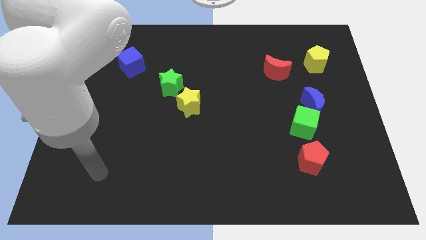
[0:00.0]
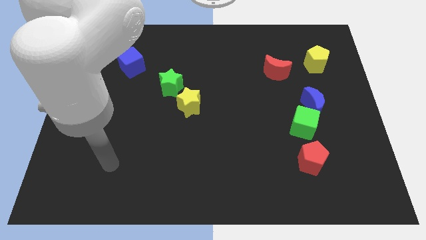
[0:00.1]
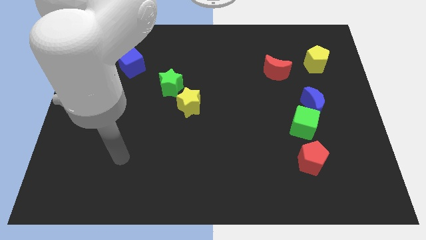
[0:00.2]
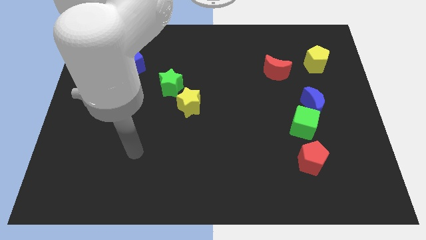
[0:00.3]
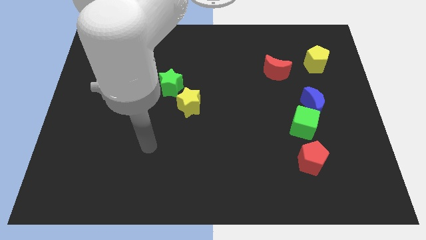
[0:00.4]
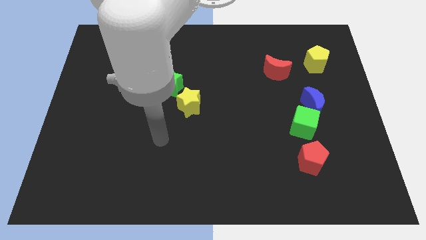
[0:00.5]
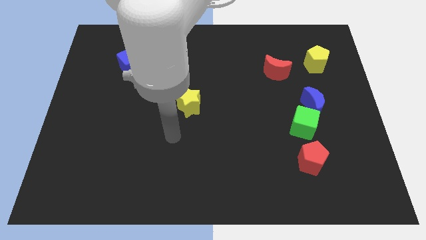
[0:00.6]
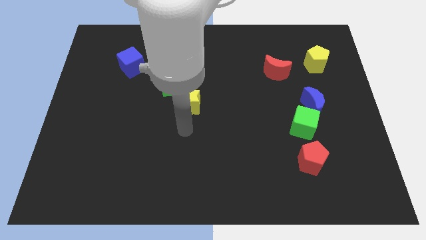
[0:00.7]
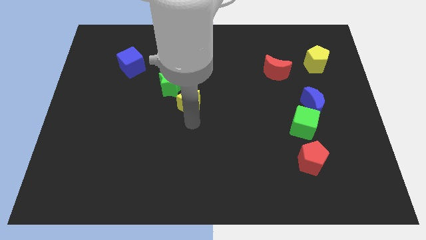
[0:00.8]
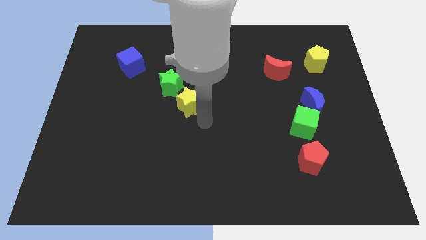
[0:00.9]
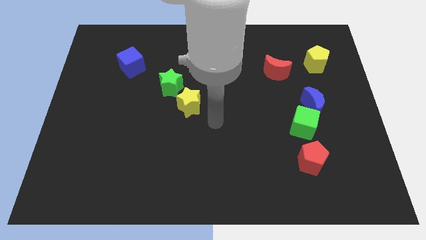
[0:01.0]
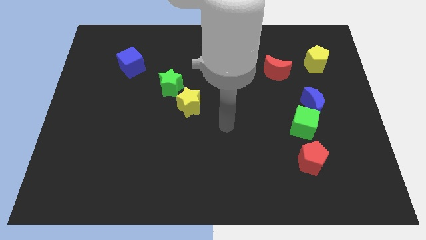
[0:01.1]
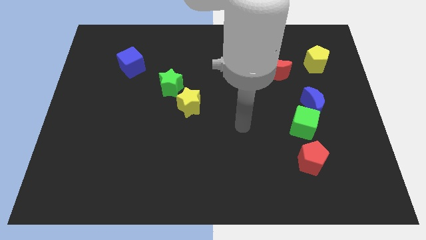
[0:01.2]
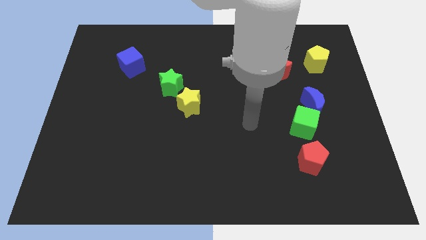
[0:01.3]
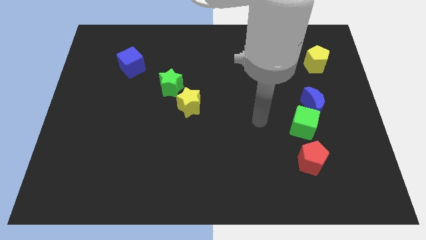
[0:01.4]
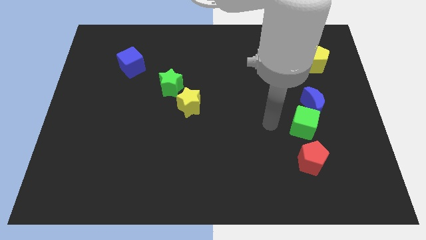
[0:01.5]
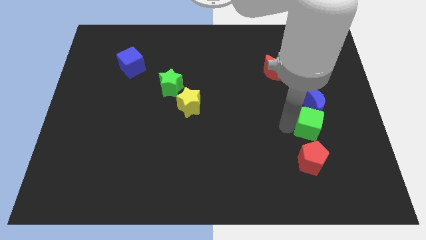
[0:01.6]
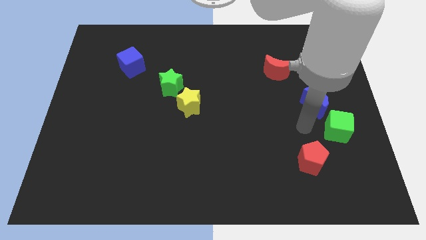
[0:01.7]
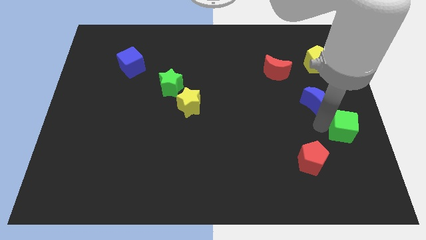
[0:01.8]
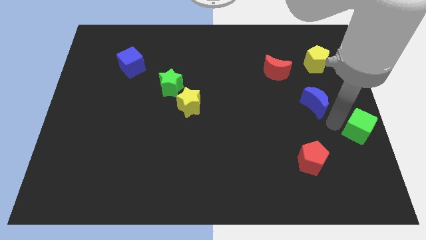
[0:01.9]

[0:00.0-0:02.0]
move the blue moon away from the green cube

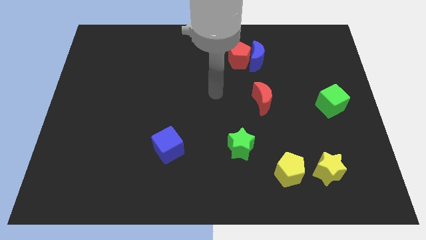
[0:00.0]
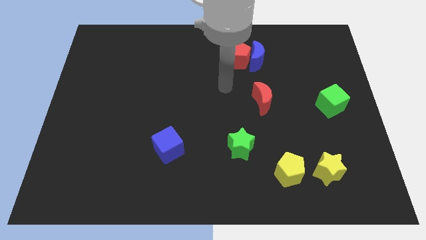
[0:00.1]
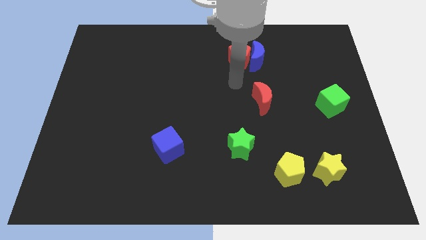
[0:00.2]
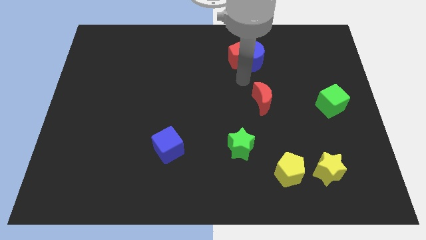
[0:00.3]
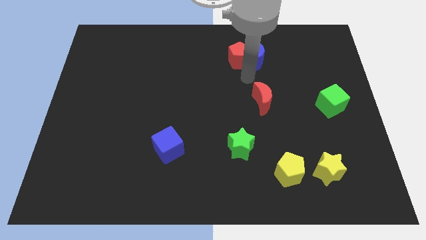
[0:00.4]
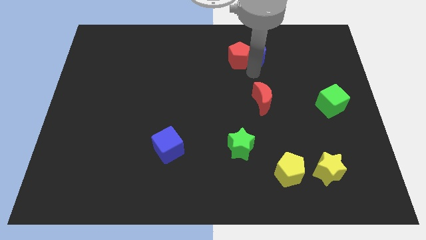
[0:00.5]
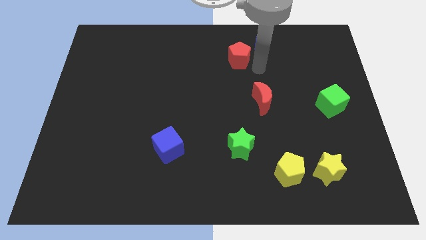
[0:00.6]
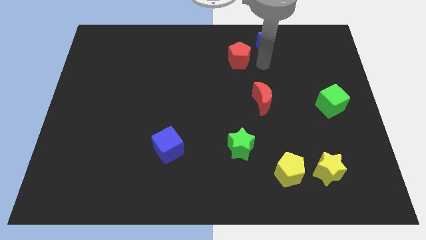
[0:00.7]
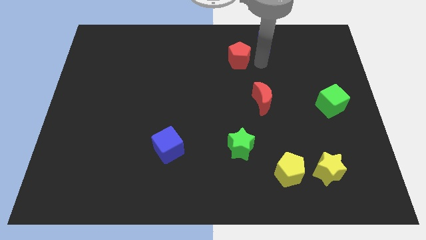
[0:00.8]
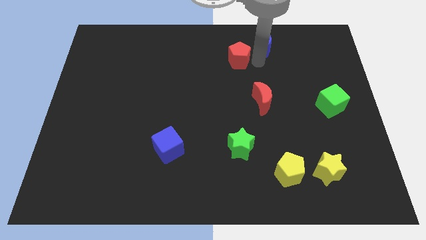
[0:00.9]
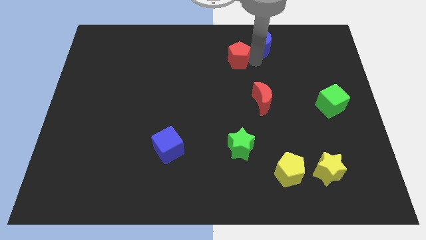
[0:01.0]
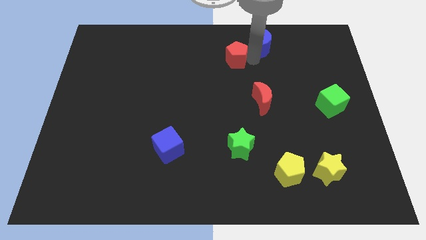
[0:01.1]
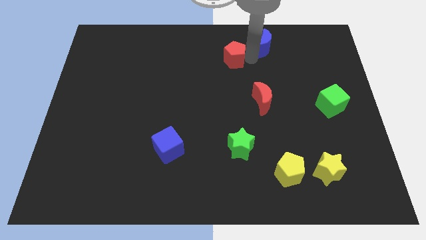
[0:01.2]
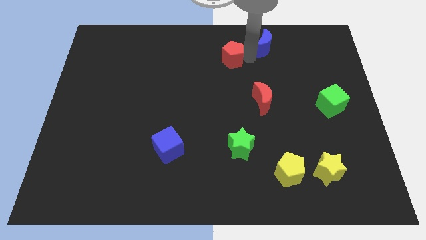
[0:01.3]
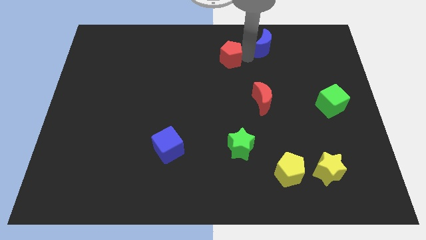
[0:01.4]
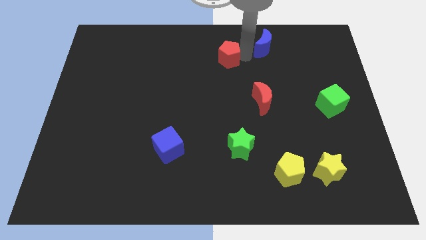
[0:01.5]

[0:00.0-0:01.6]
separate the red pentagon from the blue moon

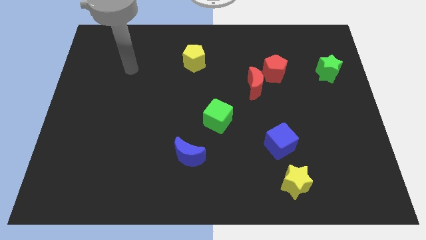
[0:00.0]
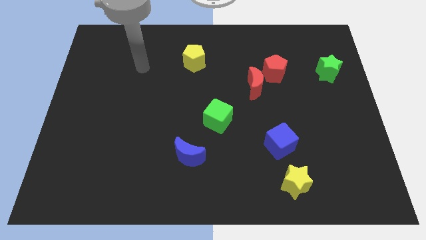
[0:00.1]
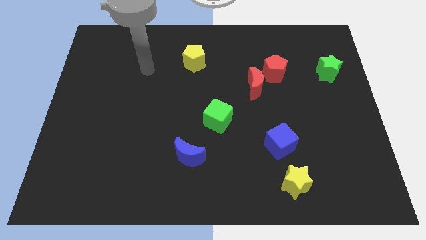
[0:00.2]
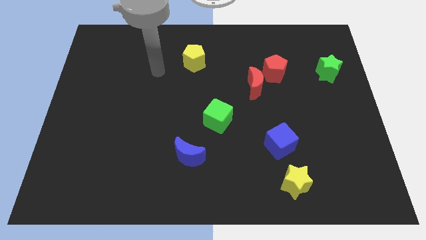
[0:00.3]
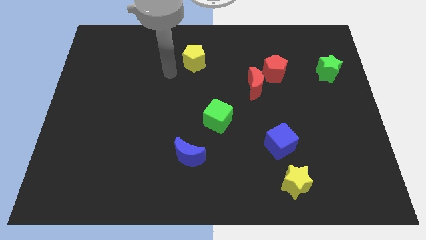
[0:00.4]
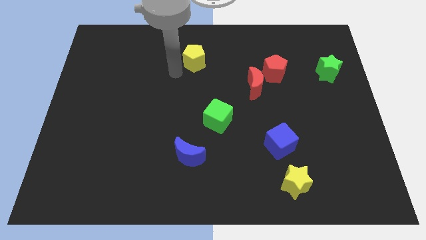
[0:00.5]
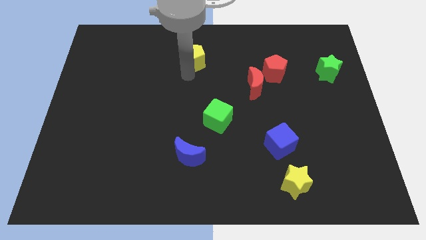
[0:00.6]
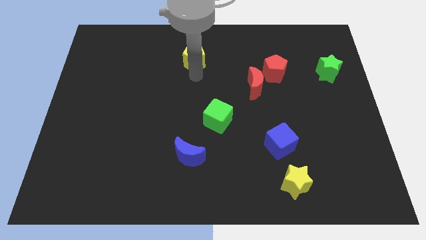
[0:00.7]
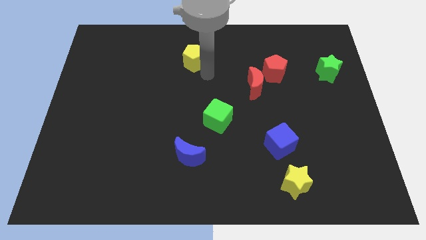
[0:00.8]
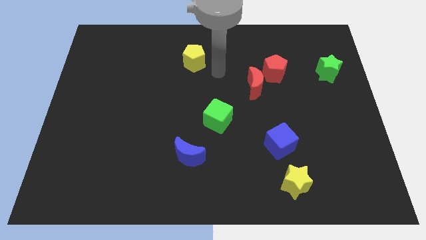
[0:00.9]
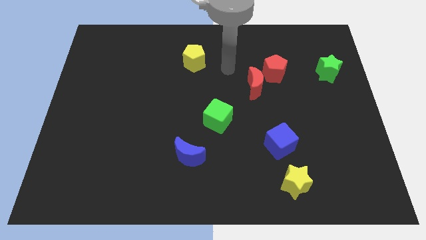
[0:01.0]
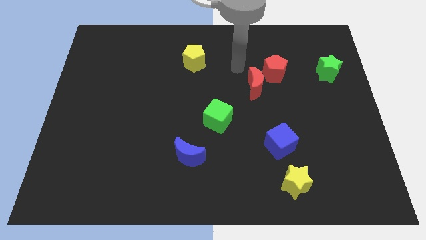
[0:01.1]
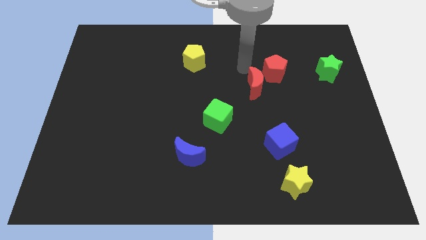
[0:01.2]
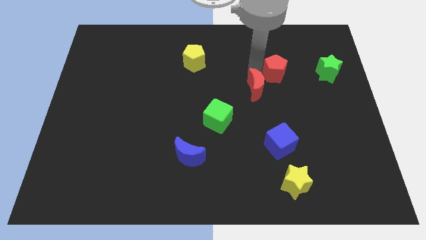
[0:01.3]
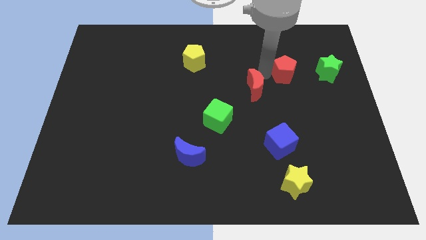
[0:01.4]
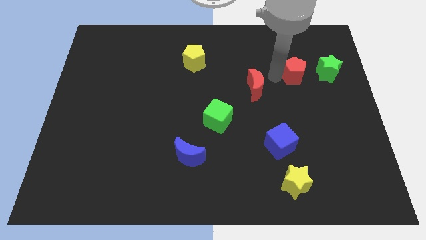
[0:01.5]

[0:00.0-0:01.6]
pull the red moon apart from the red pentagon

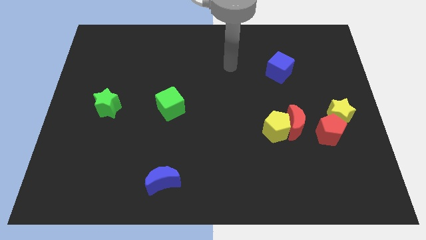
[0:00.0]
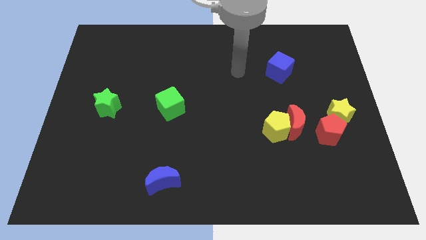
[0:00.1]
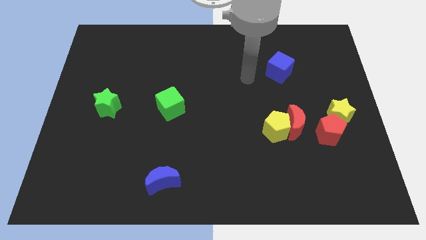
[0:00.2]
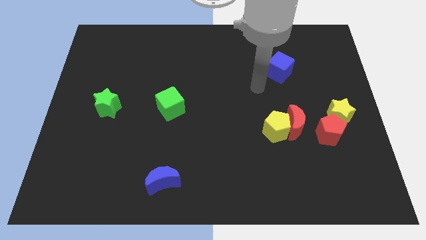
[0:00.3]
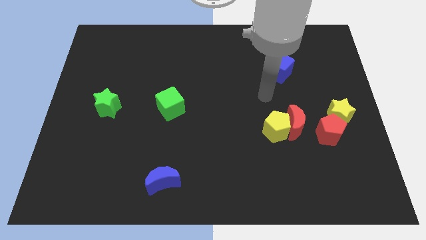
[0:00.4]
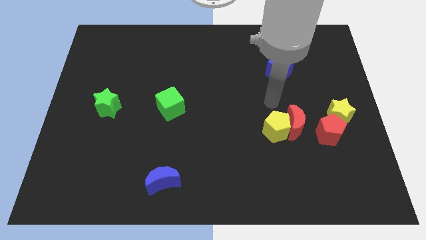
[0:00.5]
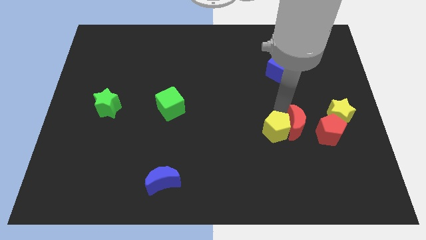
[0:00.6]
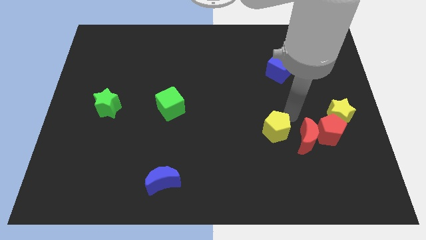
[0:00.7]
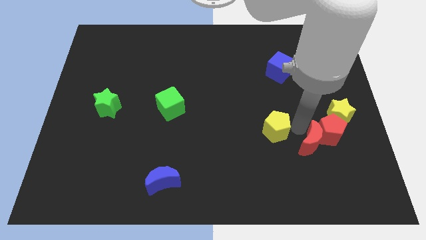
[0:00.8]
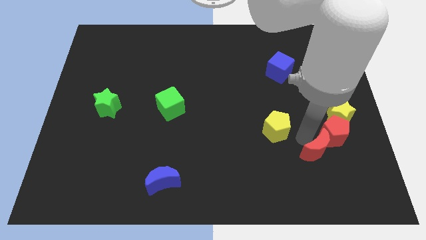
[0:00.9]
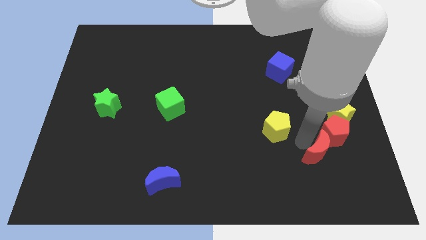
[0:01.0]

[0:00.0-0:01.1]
pull the yellow pentagon apart from the red moon

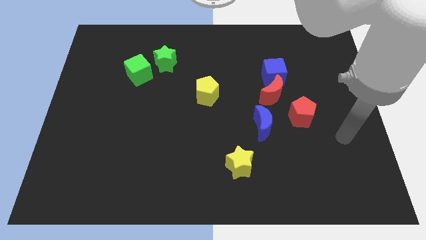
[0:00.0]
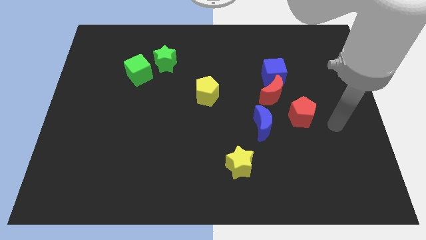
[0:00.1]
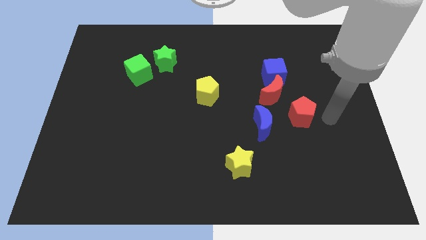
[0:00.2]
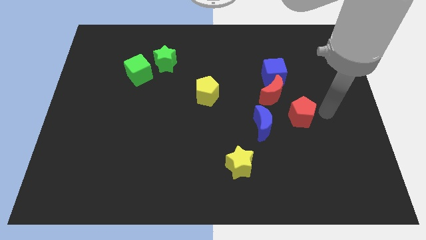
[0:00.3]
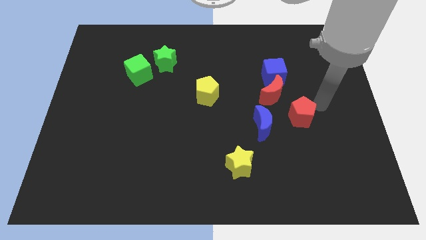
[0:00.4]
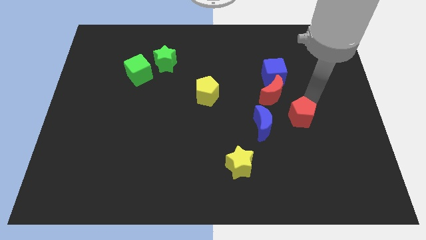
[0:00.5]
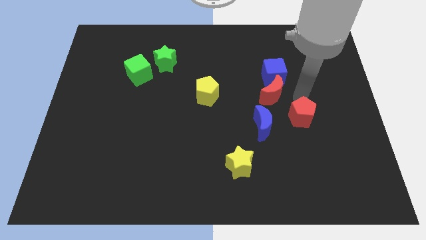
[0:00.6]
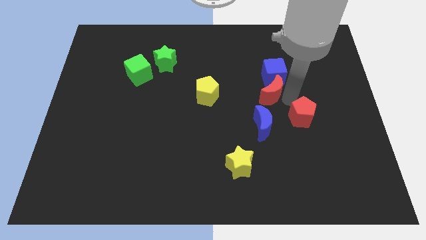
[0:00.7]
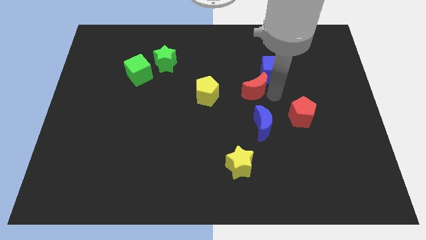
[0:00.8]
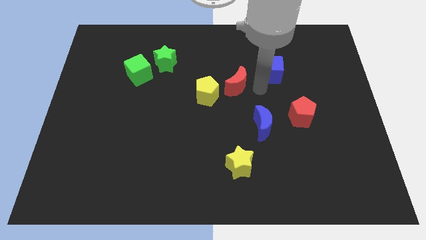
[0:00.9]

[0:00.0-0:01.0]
move the blue cube away from the red moon

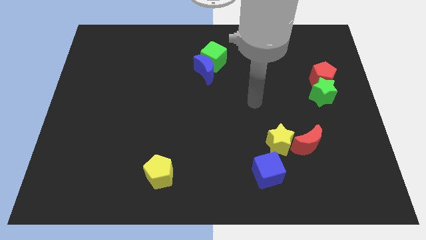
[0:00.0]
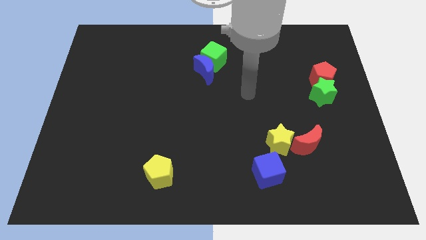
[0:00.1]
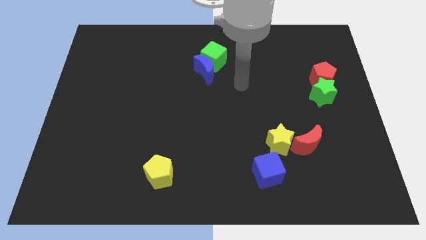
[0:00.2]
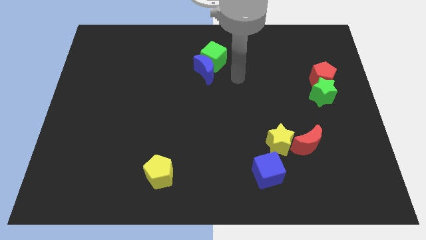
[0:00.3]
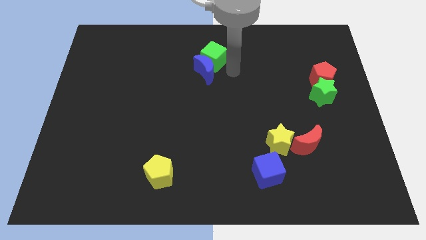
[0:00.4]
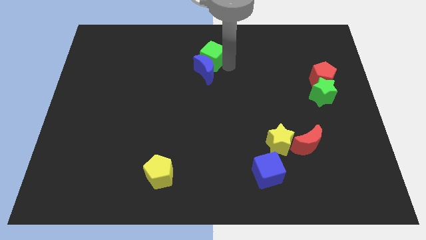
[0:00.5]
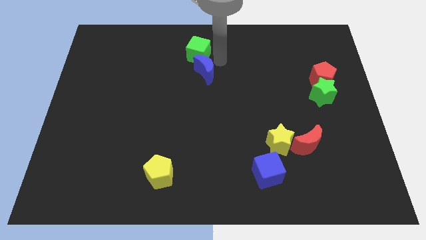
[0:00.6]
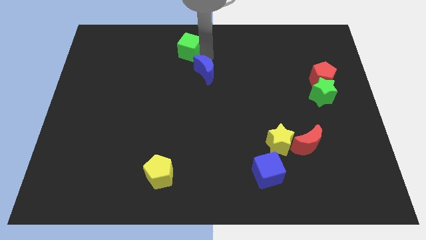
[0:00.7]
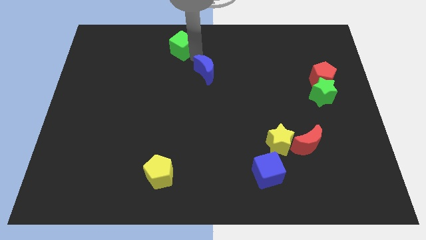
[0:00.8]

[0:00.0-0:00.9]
pull the blue moon apart from the green cube

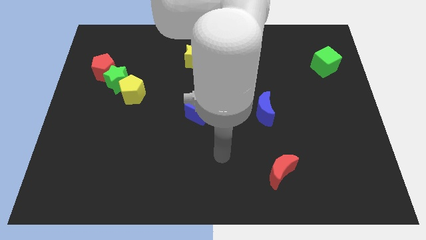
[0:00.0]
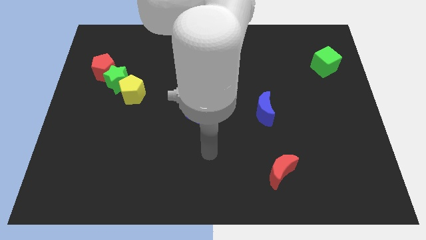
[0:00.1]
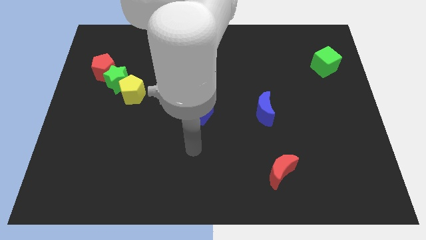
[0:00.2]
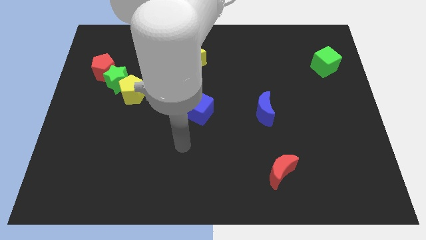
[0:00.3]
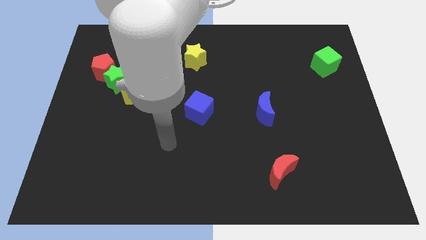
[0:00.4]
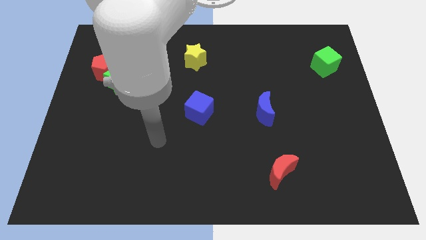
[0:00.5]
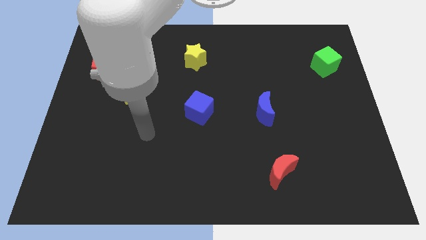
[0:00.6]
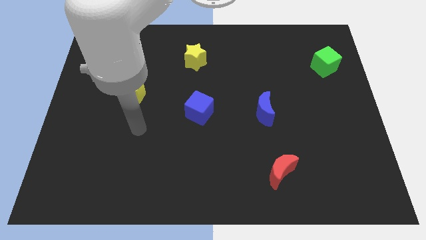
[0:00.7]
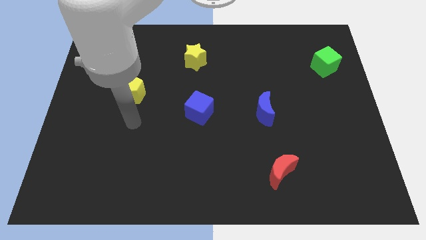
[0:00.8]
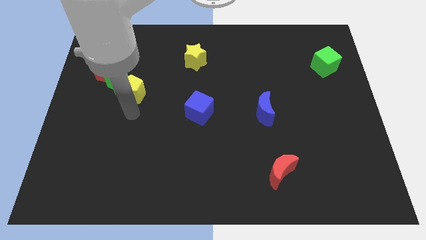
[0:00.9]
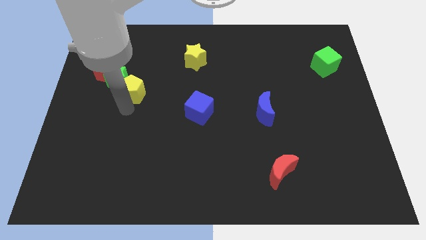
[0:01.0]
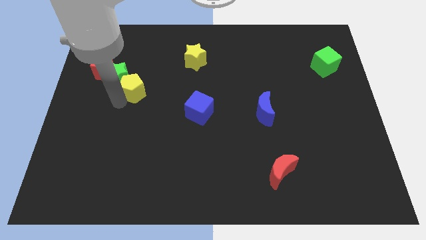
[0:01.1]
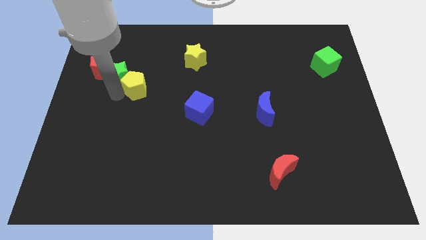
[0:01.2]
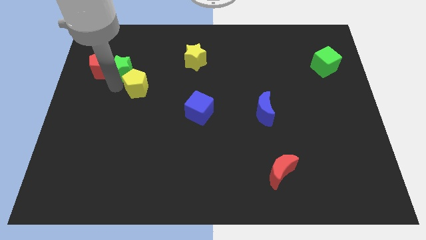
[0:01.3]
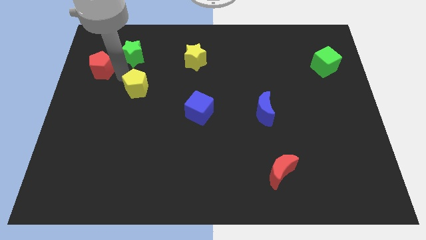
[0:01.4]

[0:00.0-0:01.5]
pull the yellow pentagon apart from the green star
